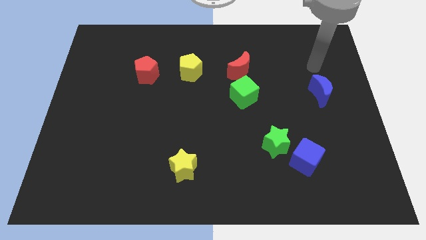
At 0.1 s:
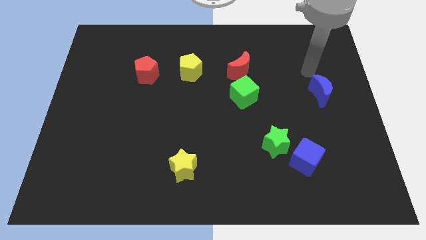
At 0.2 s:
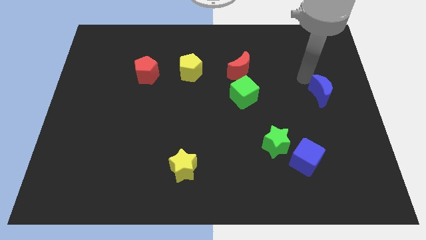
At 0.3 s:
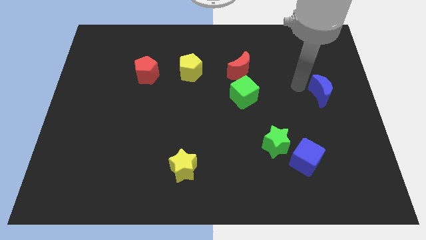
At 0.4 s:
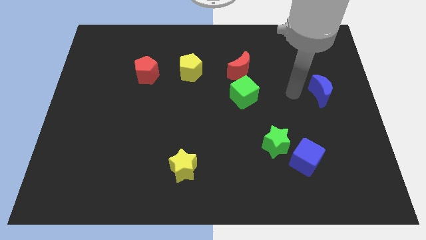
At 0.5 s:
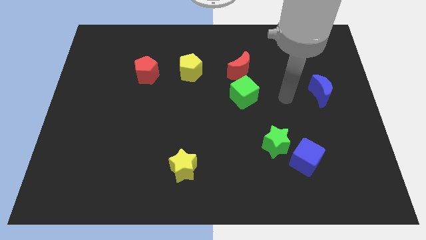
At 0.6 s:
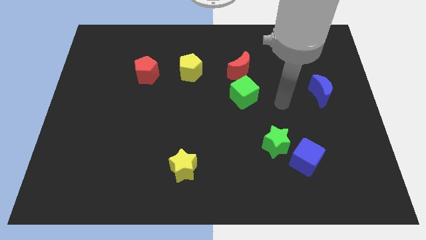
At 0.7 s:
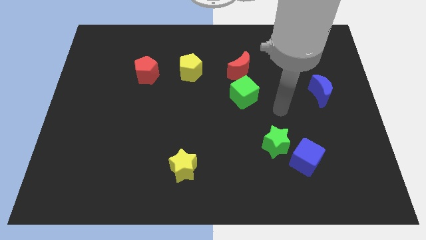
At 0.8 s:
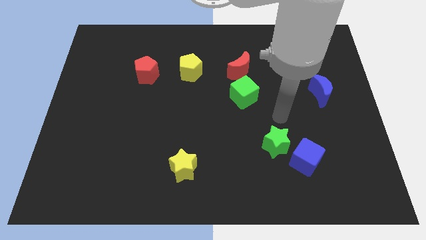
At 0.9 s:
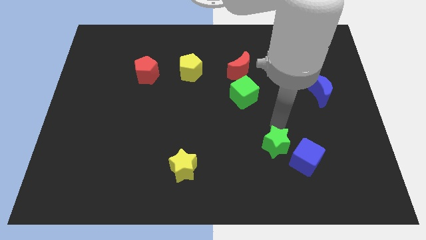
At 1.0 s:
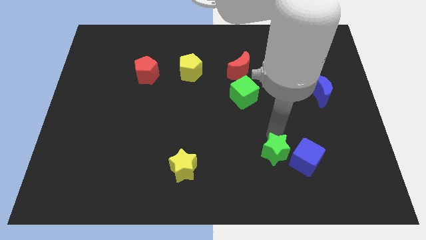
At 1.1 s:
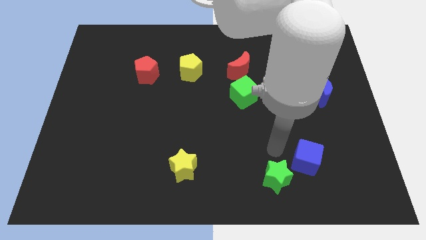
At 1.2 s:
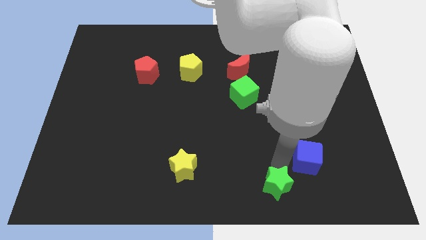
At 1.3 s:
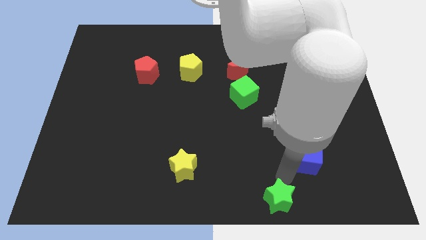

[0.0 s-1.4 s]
separate the blue cube from the green star

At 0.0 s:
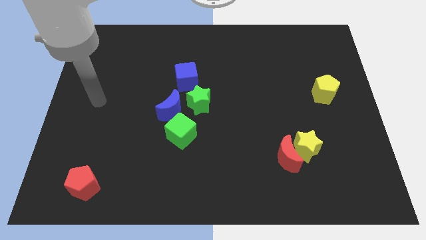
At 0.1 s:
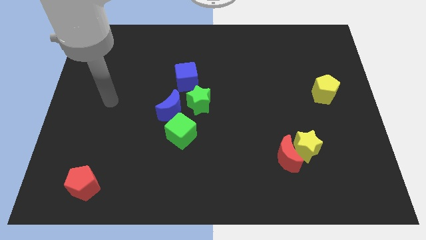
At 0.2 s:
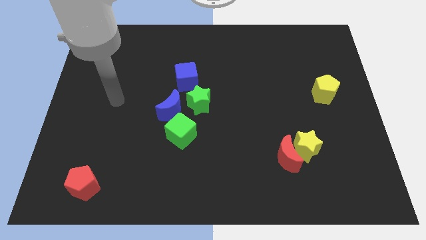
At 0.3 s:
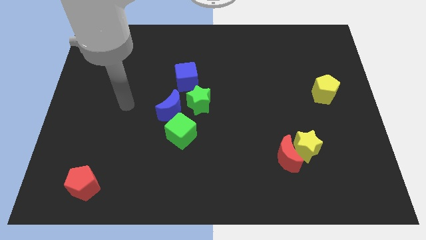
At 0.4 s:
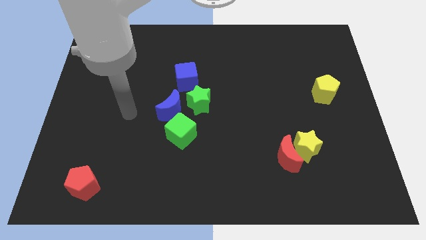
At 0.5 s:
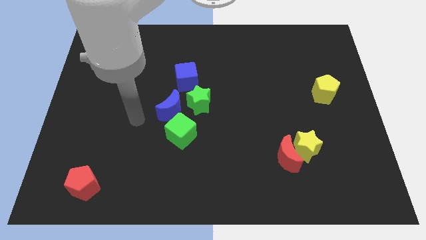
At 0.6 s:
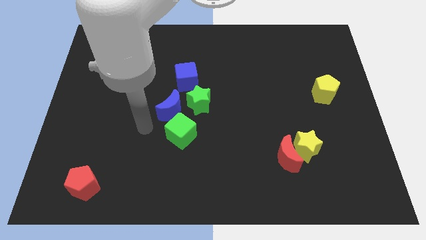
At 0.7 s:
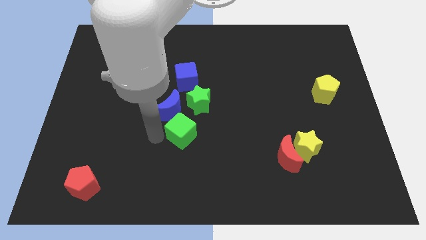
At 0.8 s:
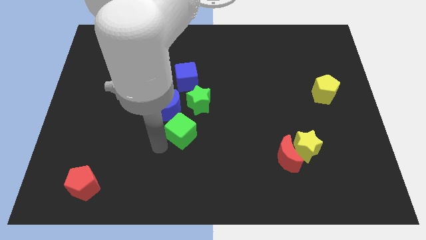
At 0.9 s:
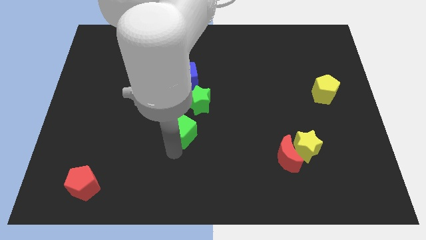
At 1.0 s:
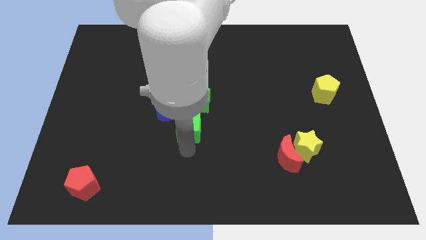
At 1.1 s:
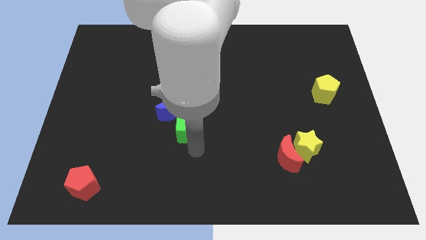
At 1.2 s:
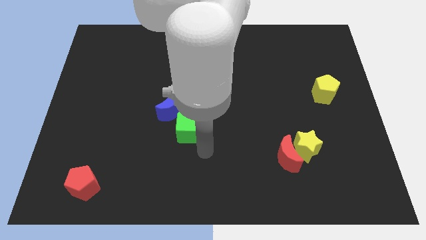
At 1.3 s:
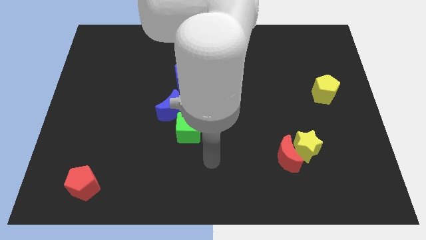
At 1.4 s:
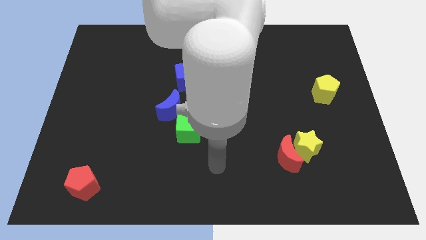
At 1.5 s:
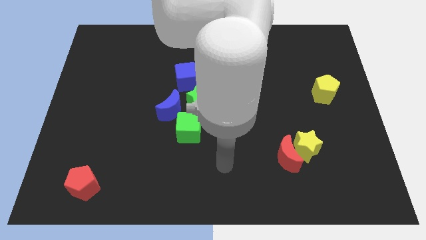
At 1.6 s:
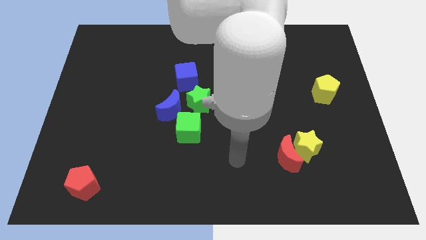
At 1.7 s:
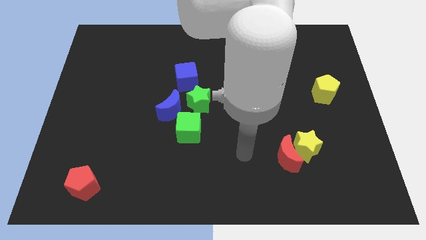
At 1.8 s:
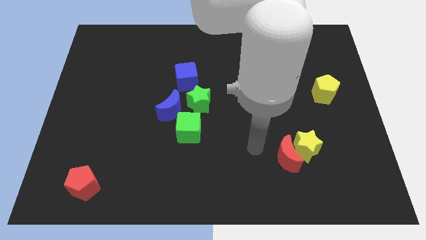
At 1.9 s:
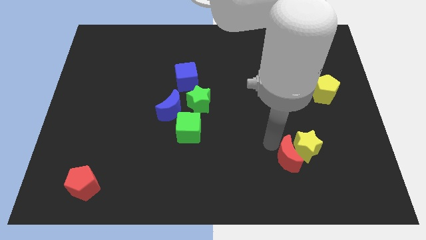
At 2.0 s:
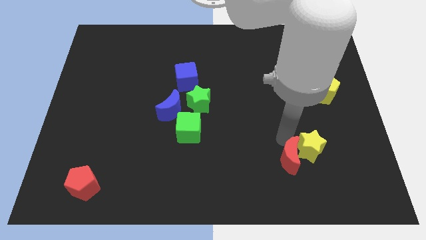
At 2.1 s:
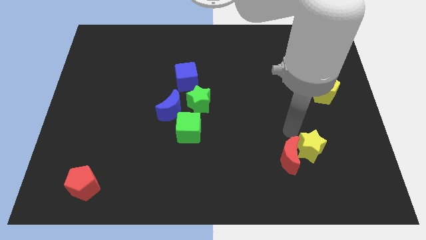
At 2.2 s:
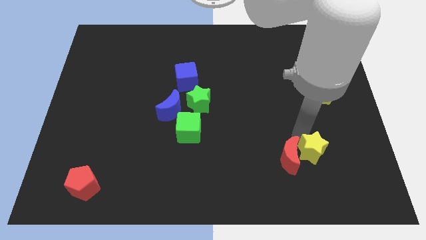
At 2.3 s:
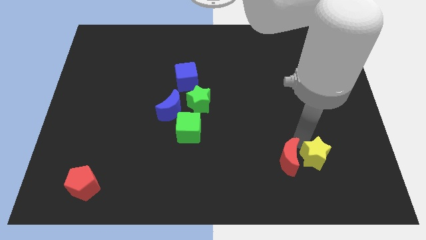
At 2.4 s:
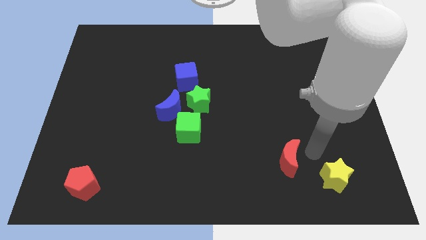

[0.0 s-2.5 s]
pull the red moon apart from the yellow star

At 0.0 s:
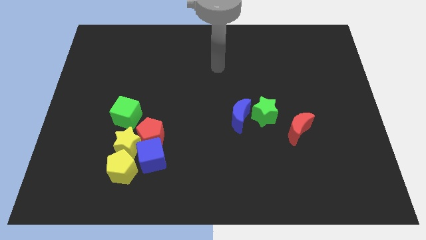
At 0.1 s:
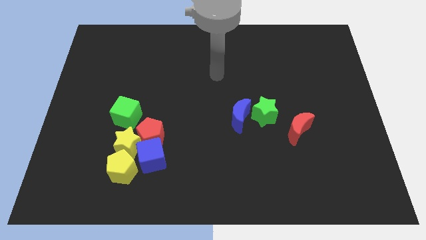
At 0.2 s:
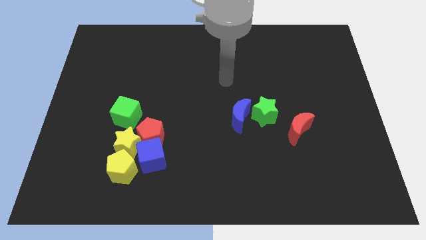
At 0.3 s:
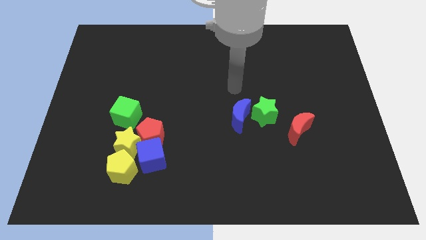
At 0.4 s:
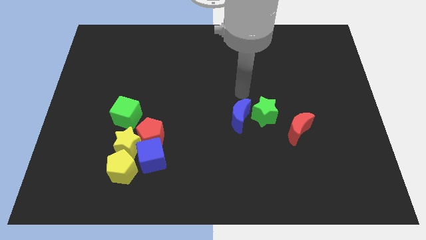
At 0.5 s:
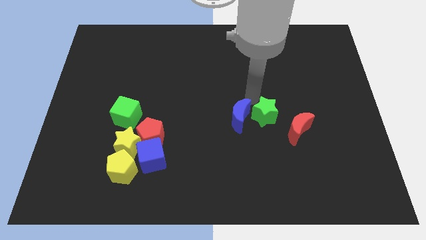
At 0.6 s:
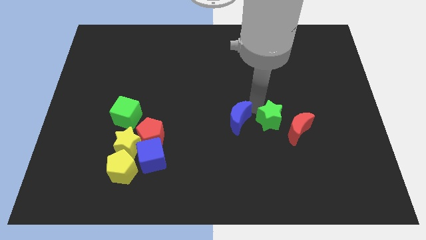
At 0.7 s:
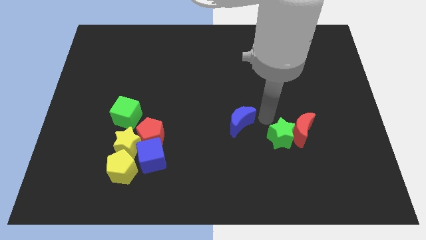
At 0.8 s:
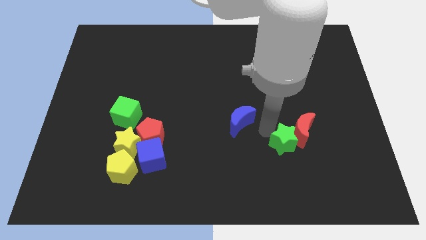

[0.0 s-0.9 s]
move the blue moon away from the green star

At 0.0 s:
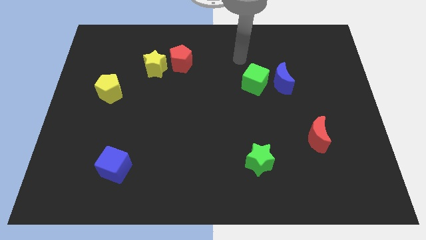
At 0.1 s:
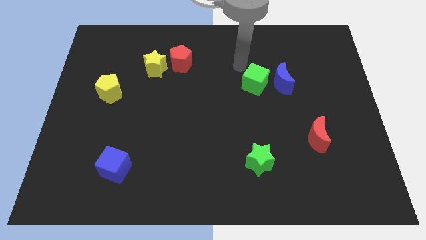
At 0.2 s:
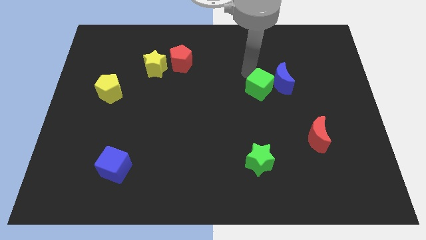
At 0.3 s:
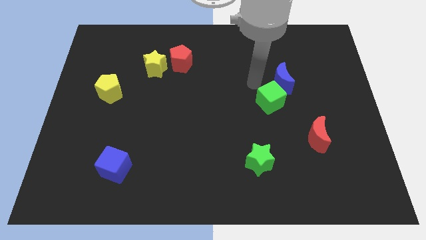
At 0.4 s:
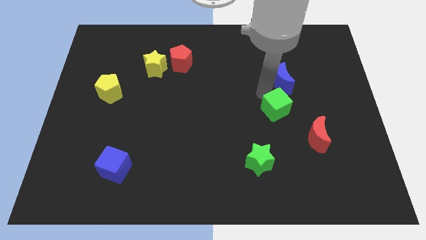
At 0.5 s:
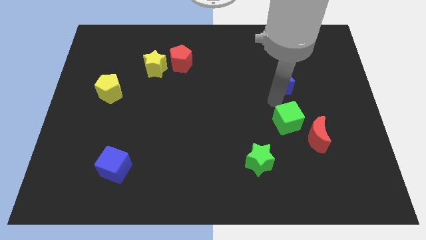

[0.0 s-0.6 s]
move the blue moon away from the green cube

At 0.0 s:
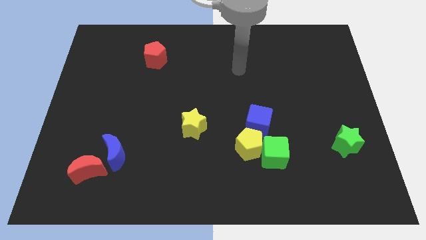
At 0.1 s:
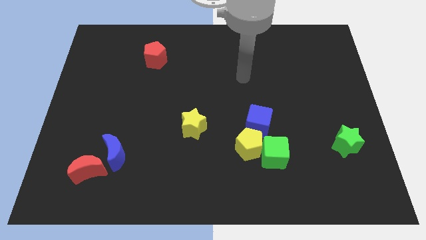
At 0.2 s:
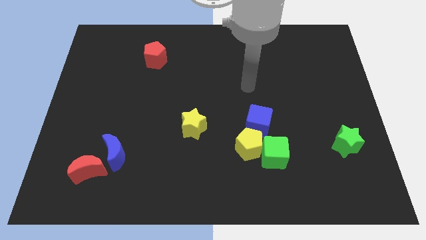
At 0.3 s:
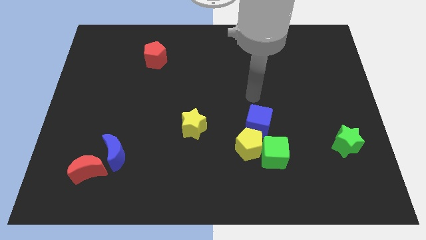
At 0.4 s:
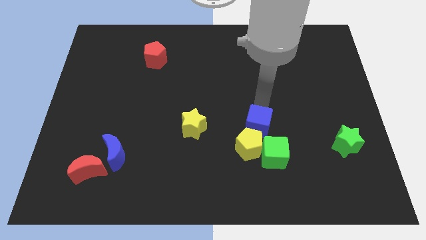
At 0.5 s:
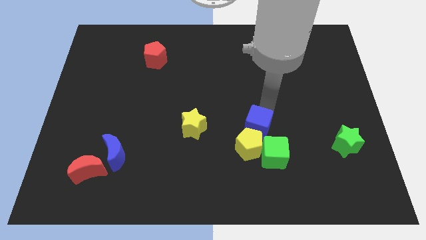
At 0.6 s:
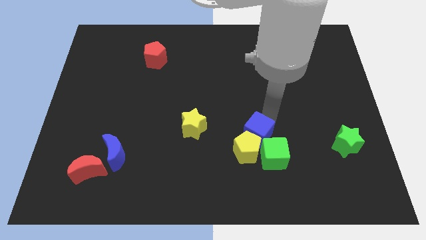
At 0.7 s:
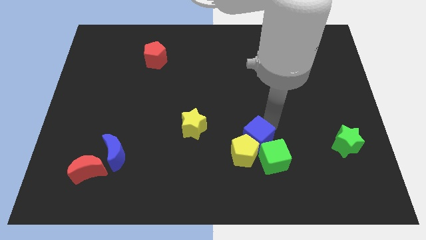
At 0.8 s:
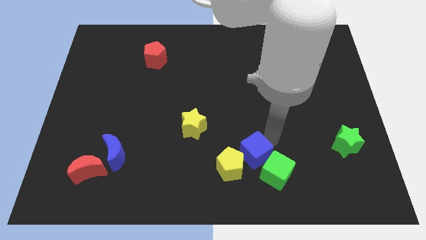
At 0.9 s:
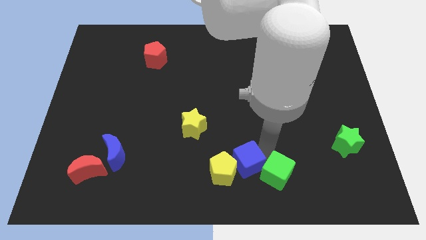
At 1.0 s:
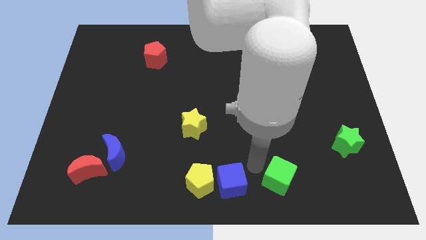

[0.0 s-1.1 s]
move the yellow pentagon away from the green cube and blue cube

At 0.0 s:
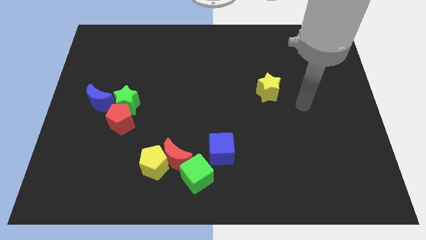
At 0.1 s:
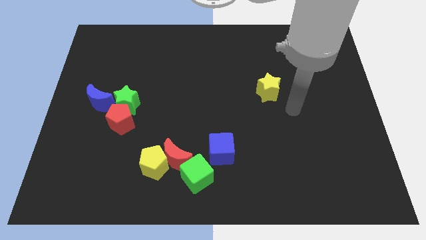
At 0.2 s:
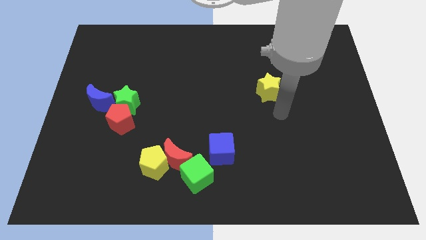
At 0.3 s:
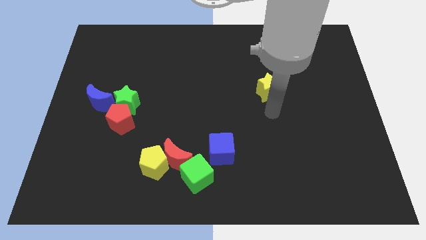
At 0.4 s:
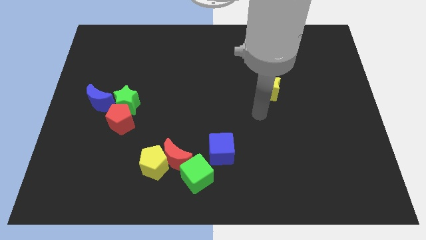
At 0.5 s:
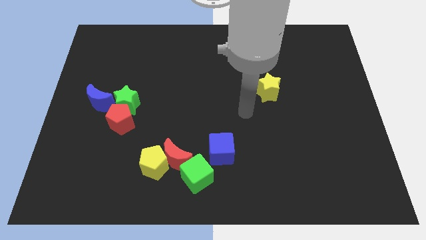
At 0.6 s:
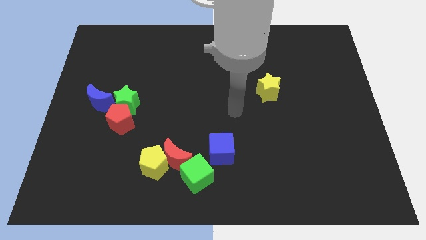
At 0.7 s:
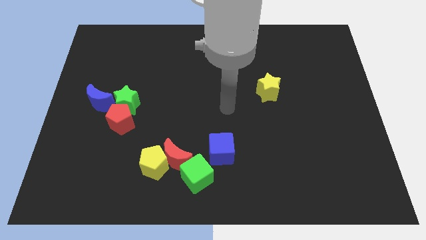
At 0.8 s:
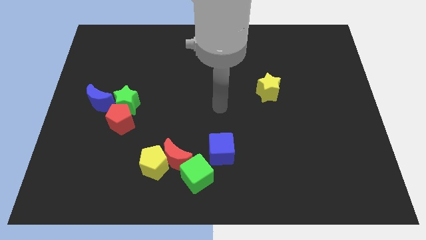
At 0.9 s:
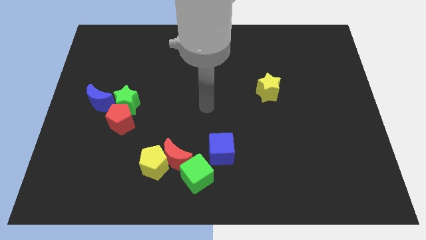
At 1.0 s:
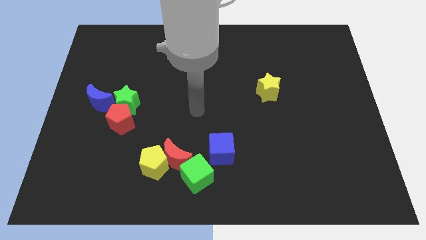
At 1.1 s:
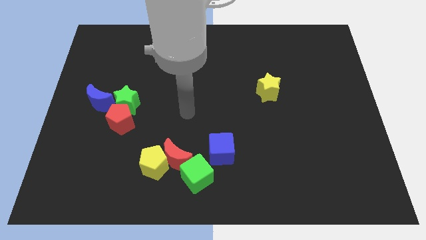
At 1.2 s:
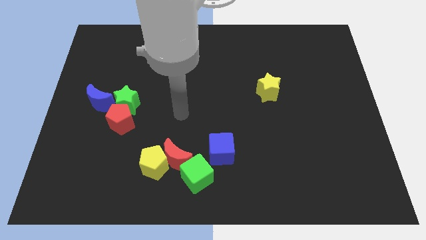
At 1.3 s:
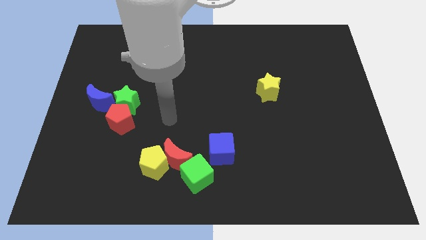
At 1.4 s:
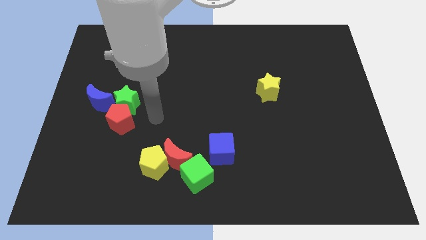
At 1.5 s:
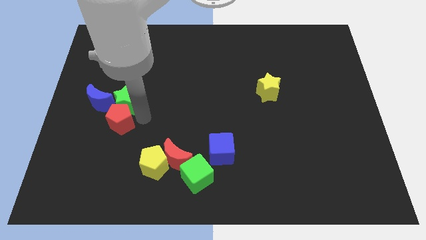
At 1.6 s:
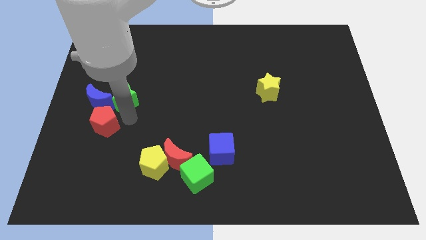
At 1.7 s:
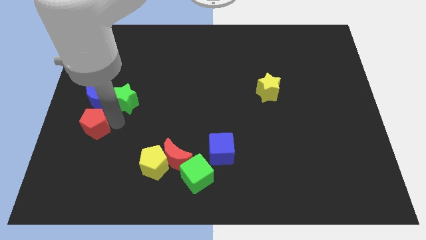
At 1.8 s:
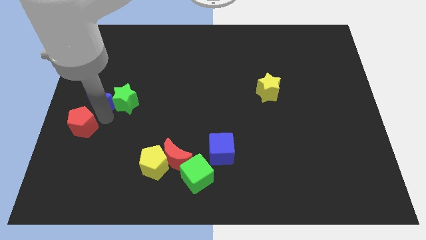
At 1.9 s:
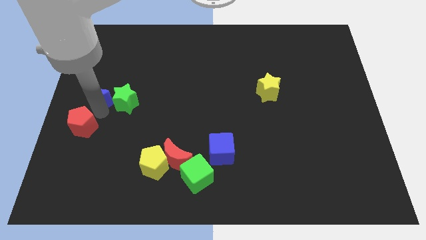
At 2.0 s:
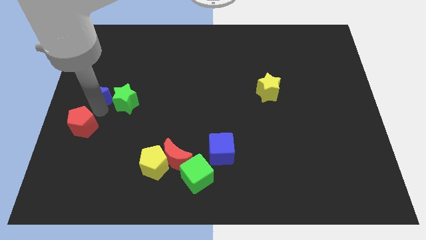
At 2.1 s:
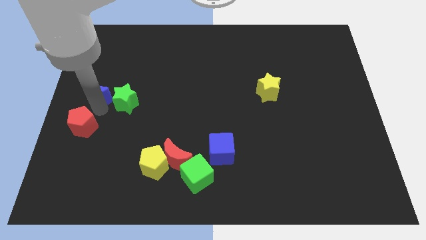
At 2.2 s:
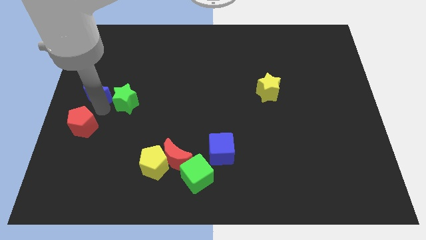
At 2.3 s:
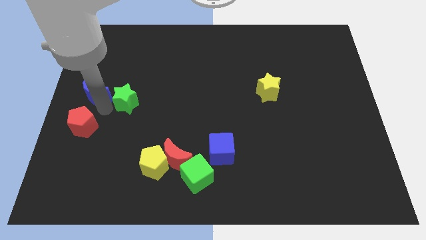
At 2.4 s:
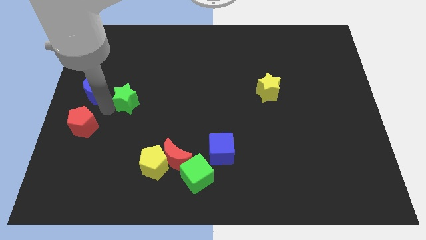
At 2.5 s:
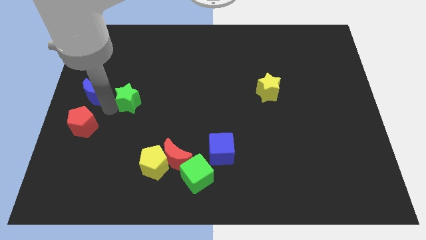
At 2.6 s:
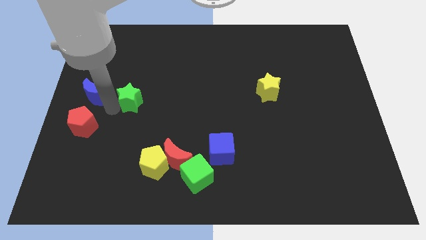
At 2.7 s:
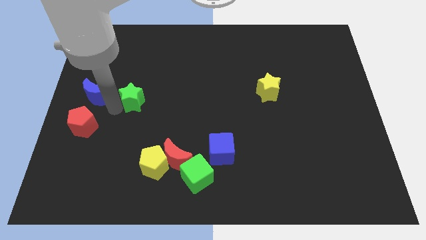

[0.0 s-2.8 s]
pull the green star apart from the red pentagon and blue moon
